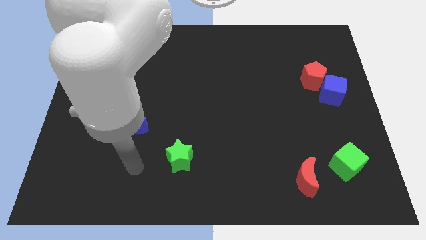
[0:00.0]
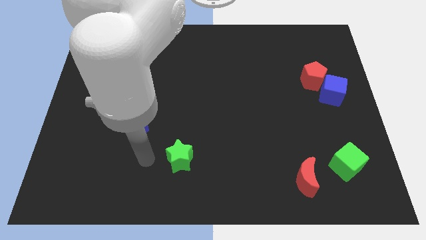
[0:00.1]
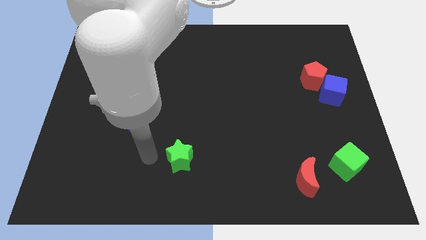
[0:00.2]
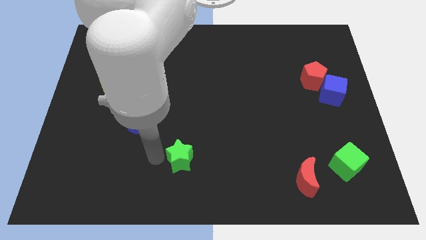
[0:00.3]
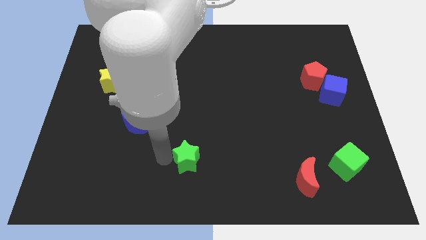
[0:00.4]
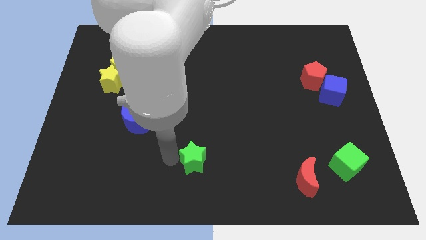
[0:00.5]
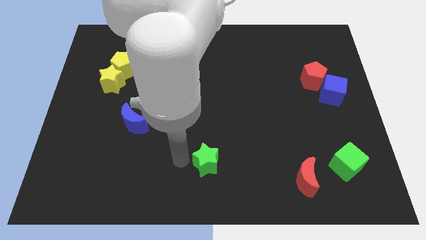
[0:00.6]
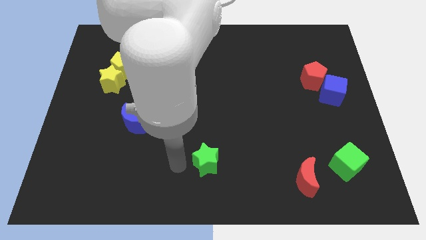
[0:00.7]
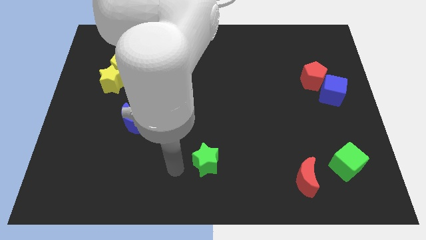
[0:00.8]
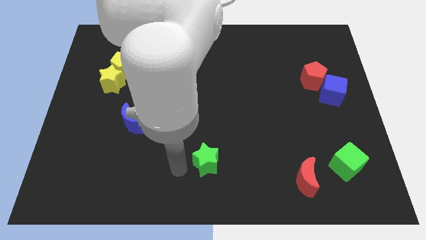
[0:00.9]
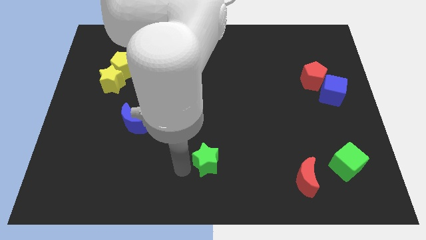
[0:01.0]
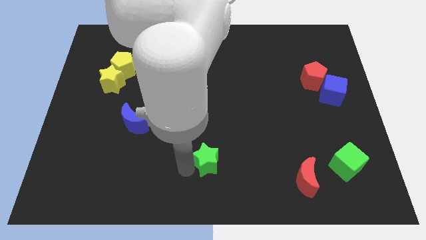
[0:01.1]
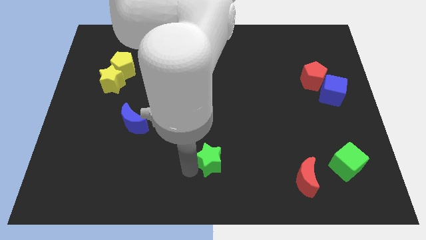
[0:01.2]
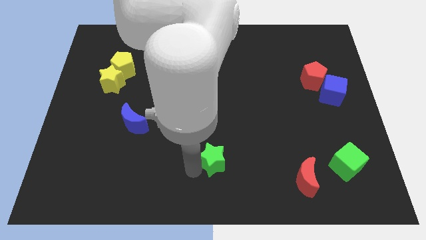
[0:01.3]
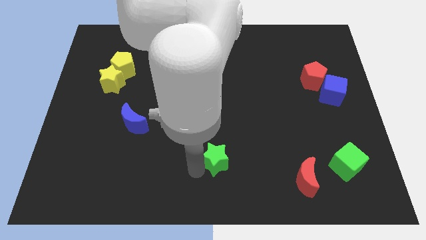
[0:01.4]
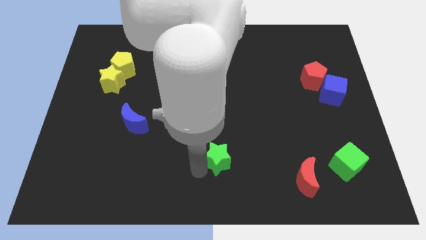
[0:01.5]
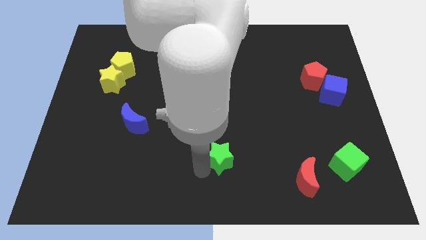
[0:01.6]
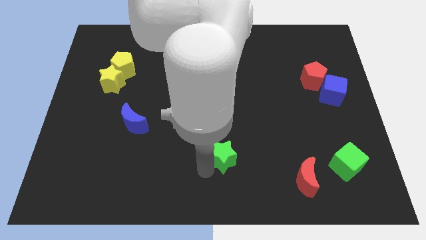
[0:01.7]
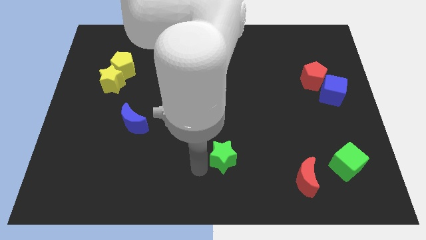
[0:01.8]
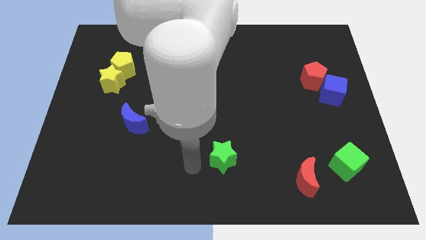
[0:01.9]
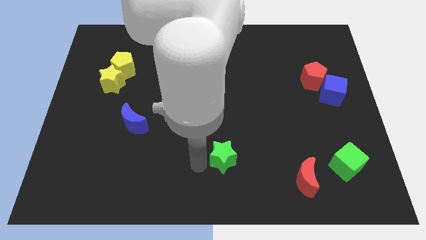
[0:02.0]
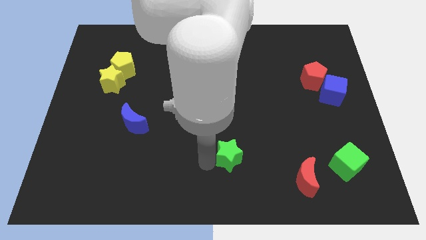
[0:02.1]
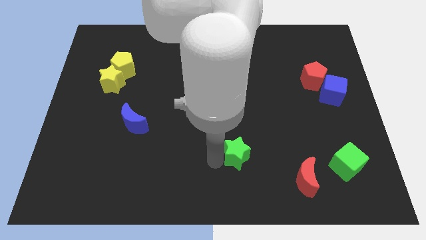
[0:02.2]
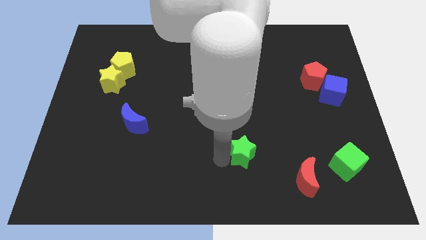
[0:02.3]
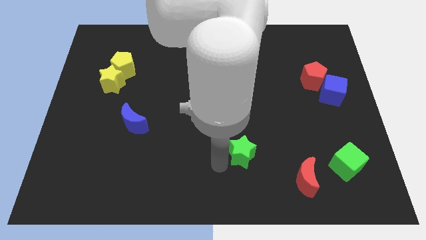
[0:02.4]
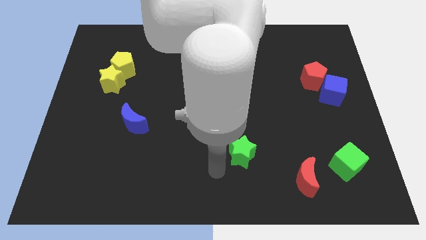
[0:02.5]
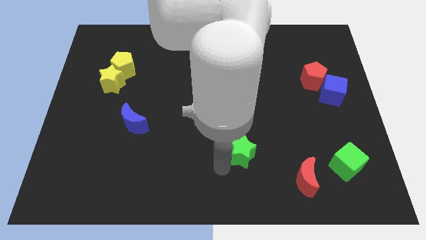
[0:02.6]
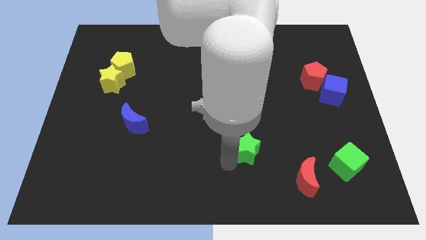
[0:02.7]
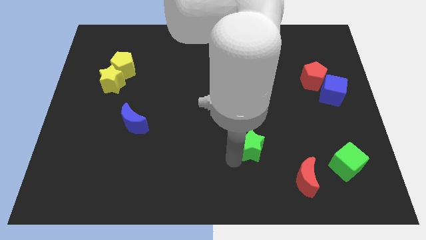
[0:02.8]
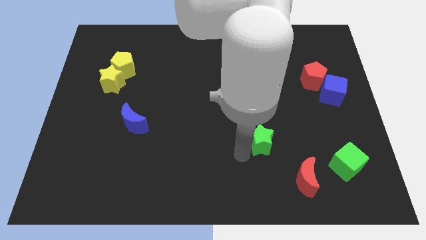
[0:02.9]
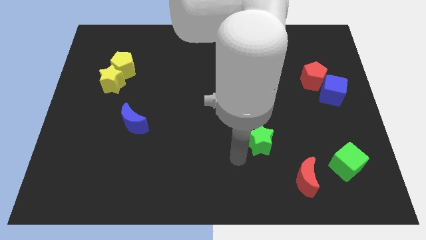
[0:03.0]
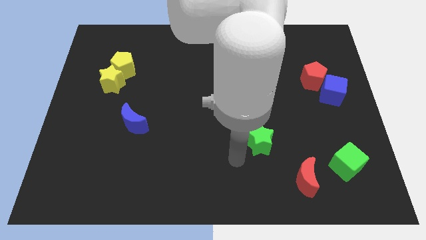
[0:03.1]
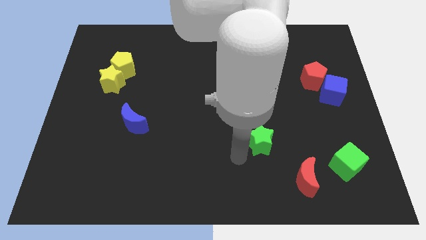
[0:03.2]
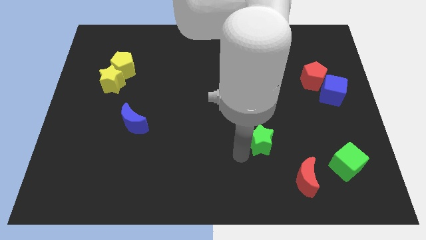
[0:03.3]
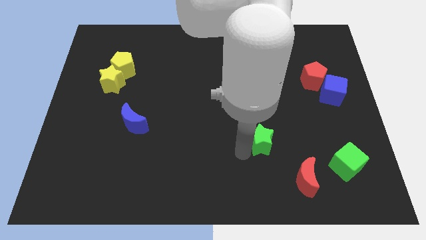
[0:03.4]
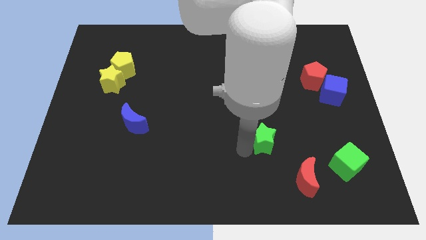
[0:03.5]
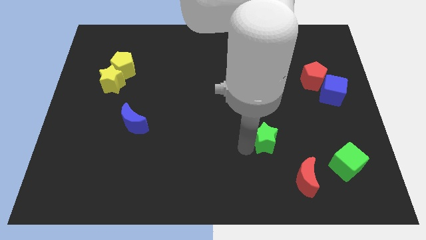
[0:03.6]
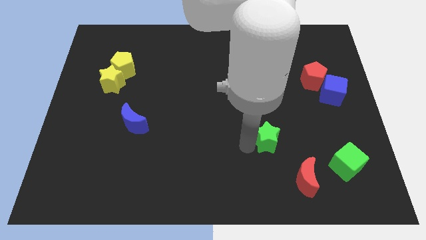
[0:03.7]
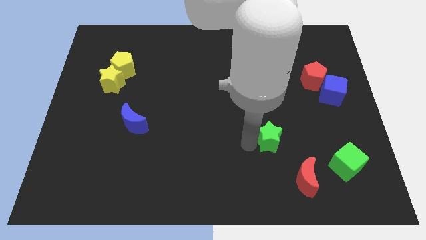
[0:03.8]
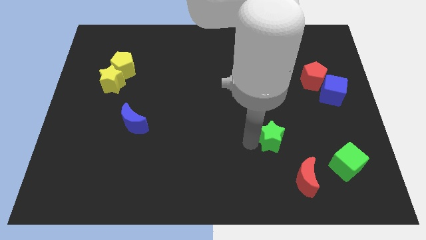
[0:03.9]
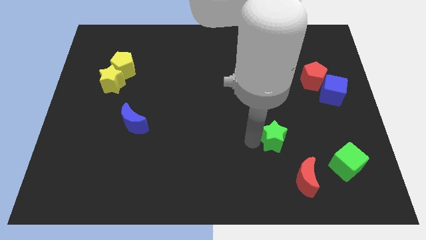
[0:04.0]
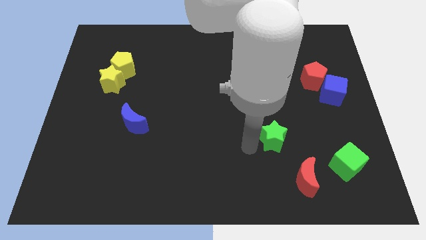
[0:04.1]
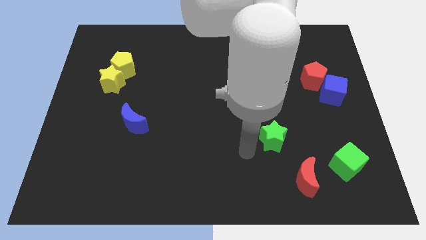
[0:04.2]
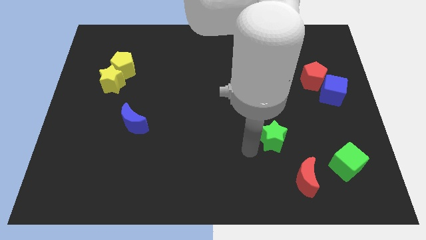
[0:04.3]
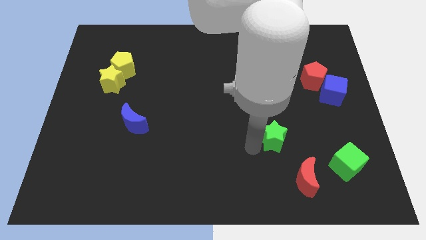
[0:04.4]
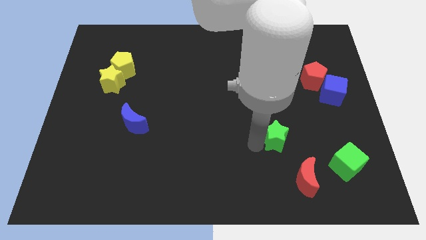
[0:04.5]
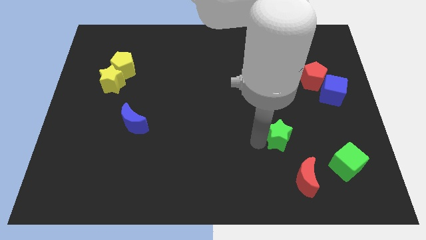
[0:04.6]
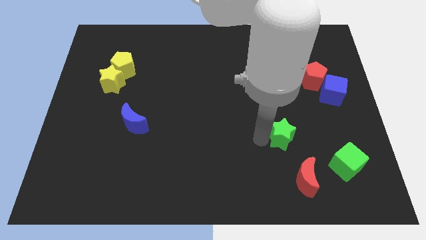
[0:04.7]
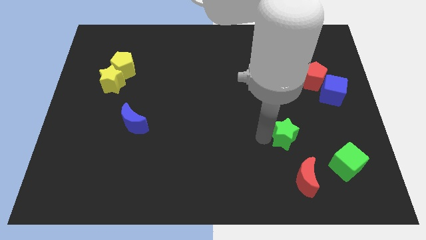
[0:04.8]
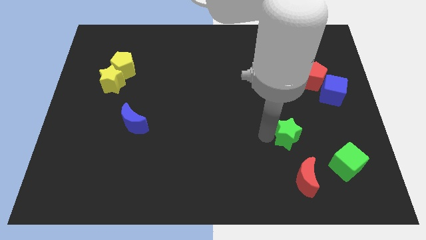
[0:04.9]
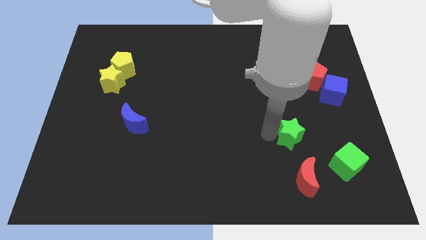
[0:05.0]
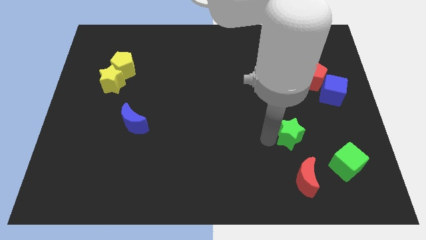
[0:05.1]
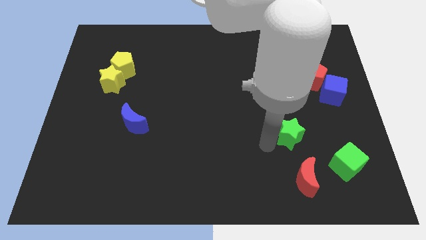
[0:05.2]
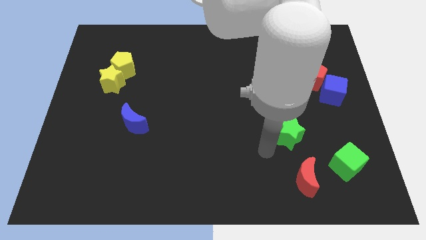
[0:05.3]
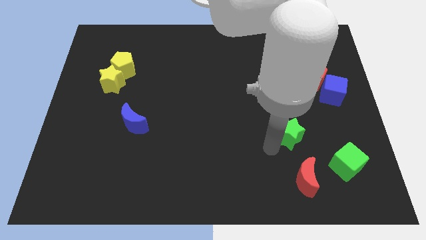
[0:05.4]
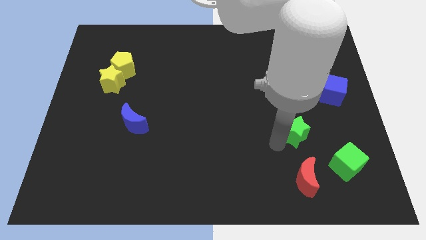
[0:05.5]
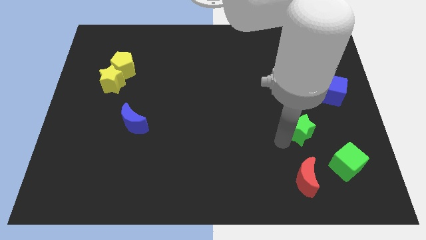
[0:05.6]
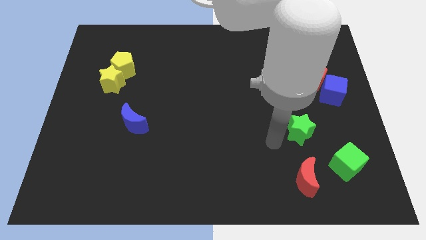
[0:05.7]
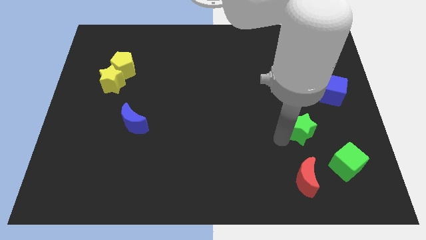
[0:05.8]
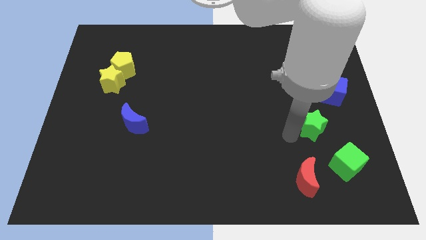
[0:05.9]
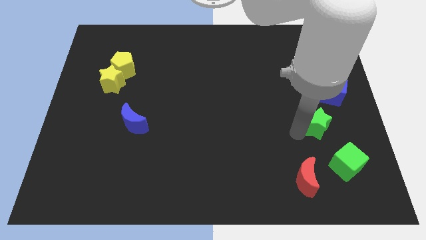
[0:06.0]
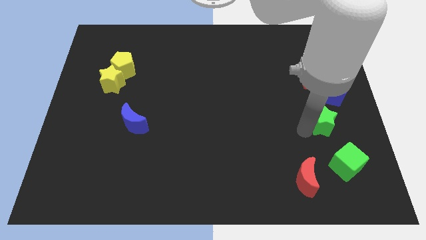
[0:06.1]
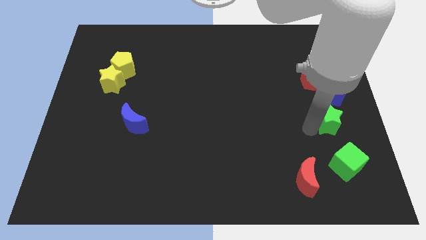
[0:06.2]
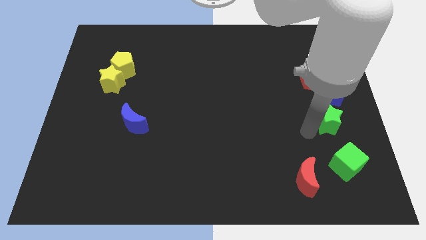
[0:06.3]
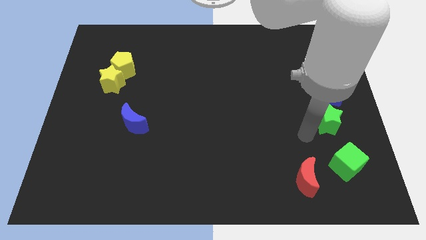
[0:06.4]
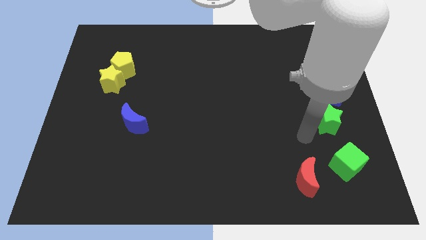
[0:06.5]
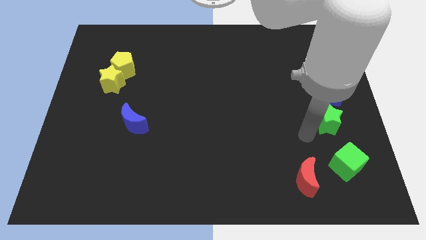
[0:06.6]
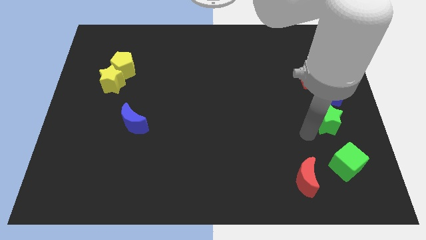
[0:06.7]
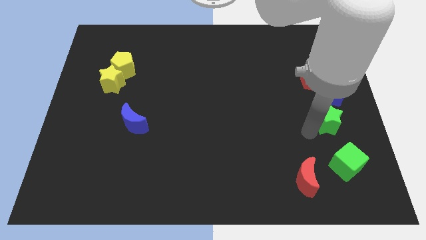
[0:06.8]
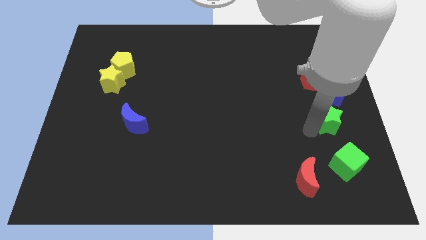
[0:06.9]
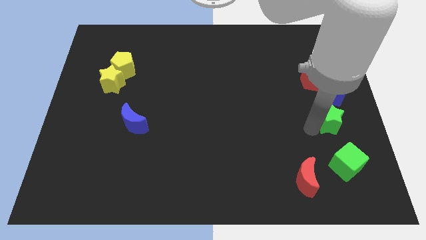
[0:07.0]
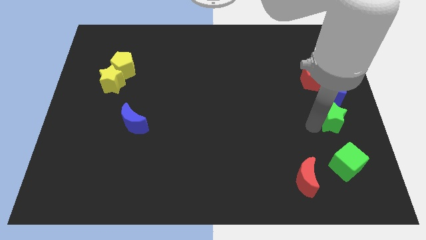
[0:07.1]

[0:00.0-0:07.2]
slide the green star to the center right
